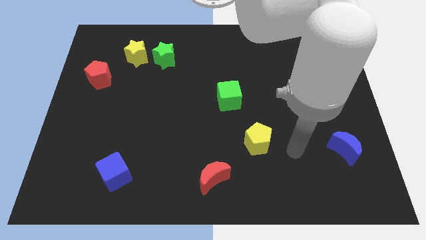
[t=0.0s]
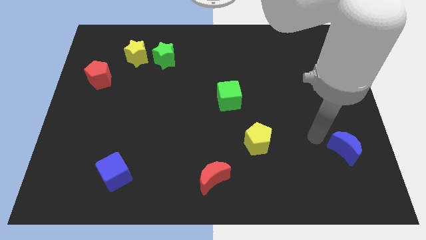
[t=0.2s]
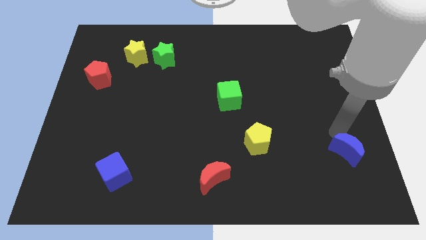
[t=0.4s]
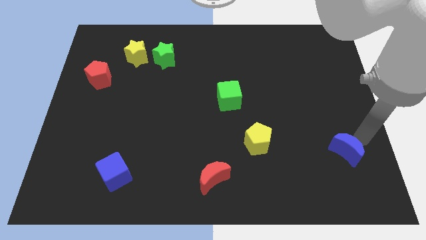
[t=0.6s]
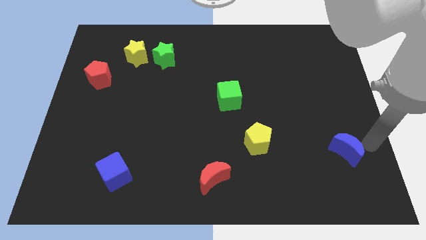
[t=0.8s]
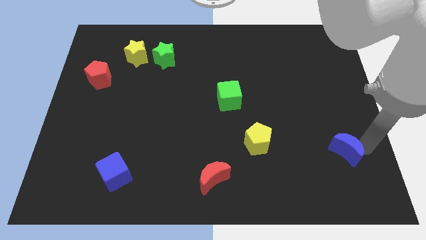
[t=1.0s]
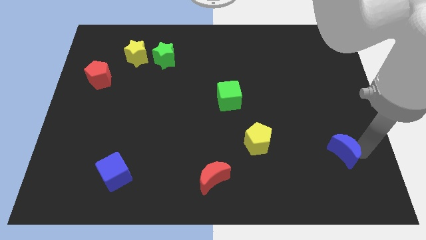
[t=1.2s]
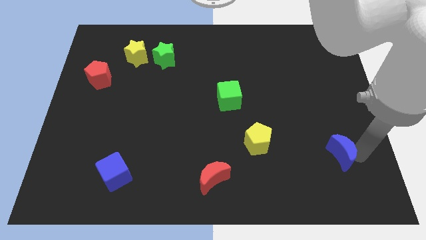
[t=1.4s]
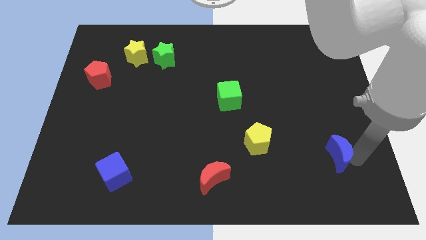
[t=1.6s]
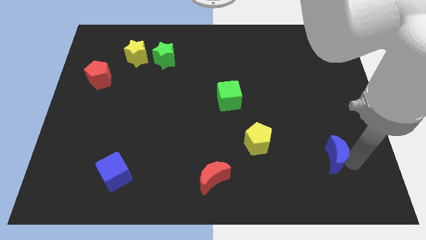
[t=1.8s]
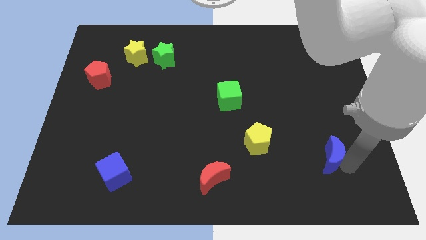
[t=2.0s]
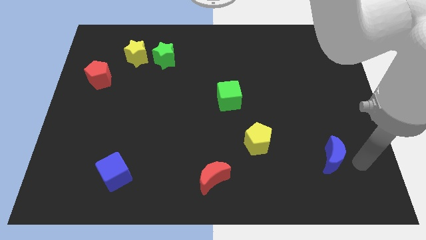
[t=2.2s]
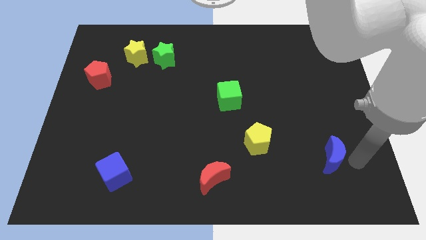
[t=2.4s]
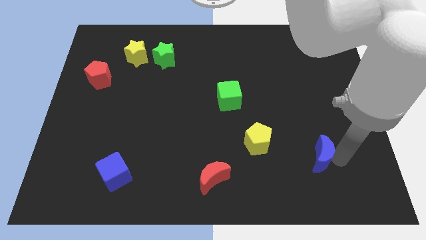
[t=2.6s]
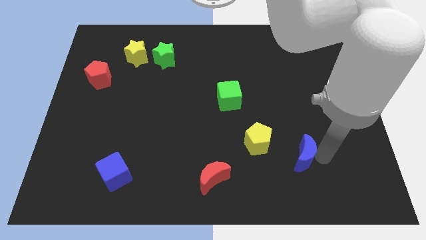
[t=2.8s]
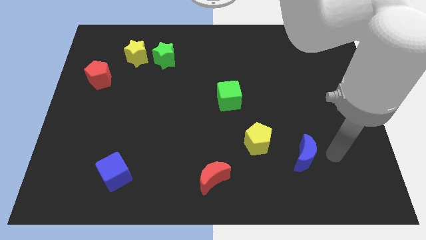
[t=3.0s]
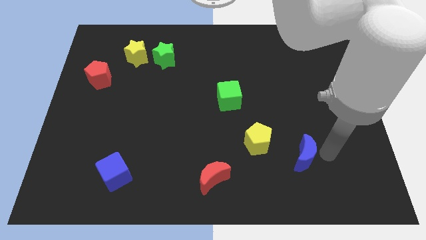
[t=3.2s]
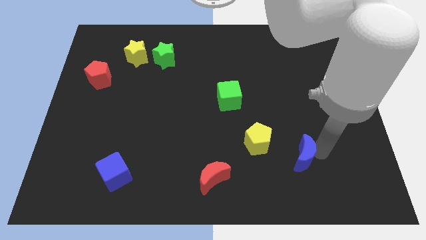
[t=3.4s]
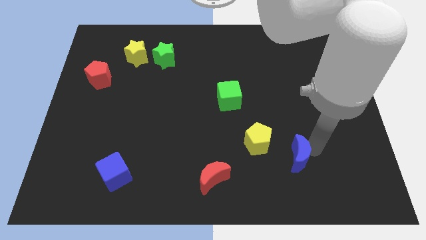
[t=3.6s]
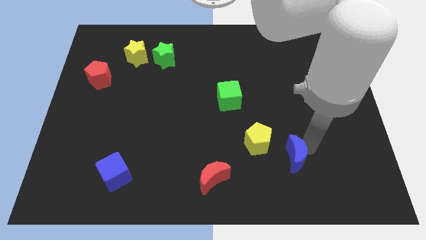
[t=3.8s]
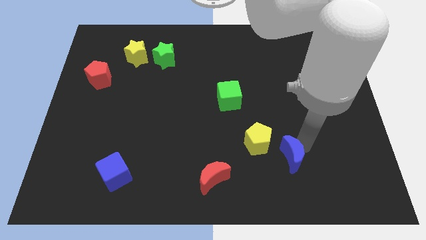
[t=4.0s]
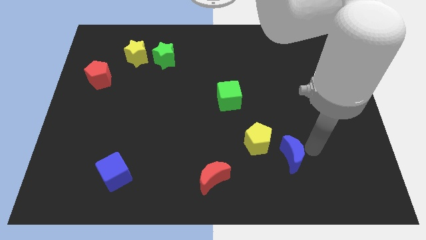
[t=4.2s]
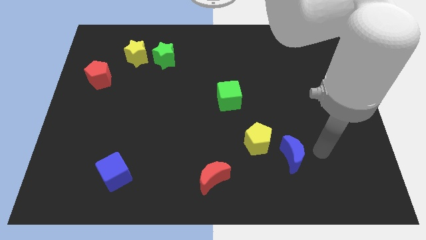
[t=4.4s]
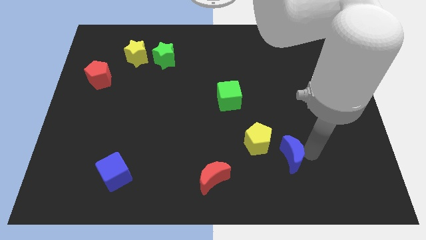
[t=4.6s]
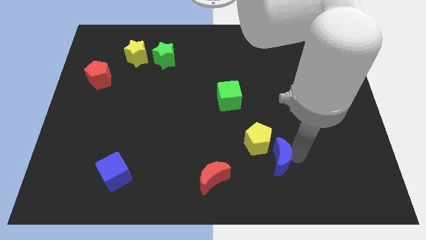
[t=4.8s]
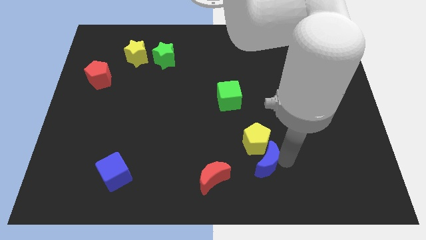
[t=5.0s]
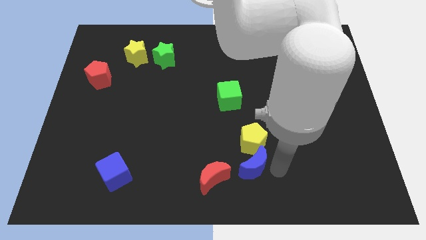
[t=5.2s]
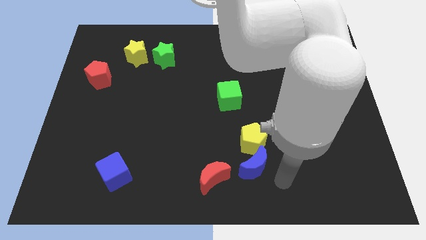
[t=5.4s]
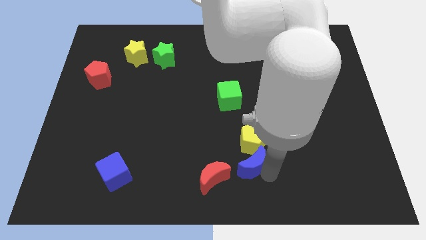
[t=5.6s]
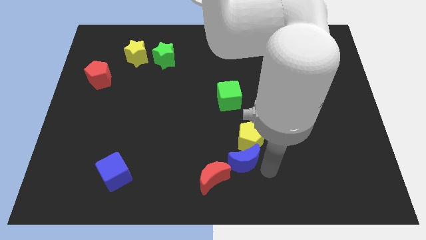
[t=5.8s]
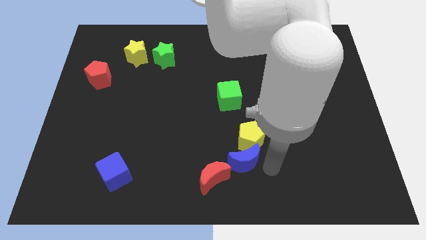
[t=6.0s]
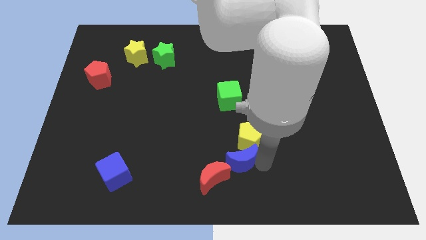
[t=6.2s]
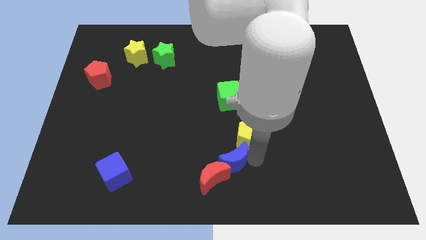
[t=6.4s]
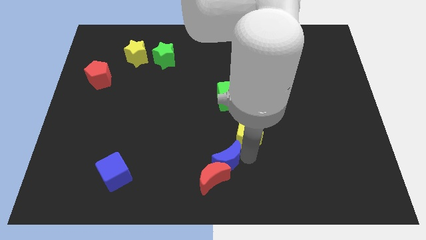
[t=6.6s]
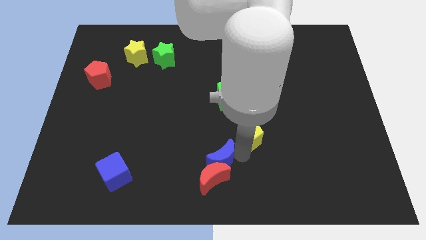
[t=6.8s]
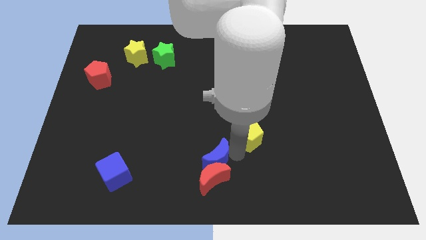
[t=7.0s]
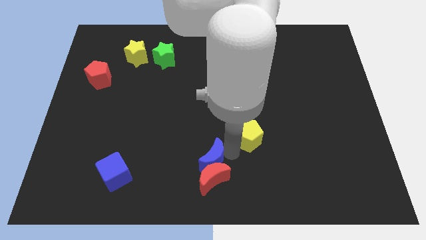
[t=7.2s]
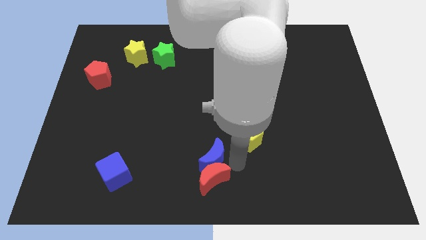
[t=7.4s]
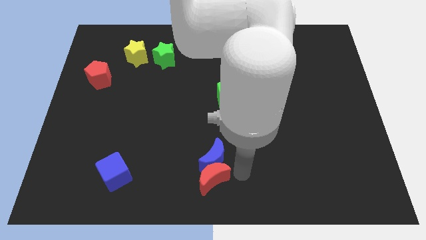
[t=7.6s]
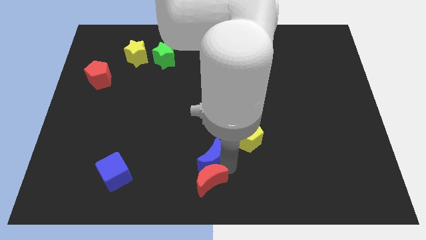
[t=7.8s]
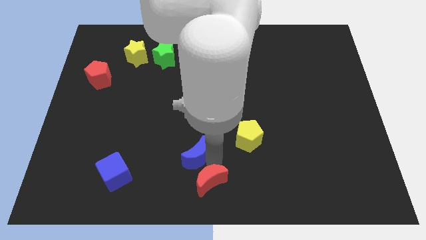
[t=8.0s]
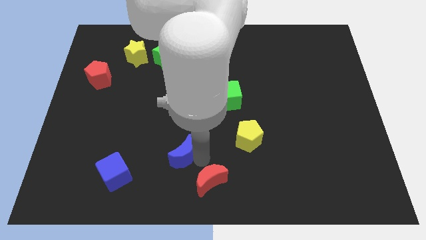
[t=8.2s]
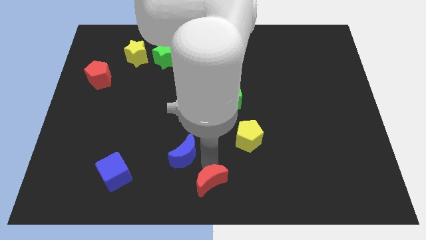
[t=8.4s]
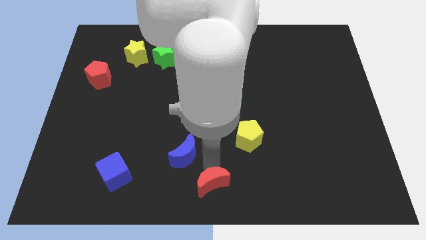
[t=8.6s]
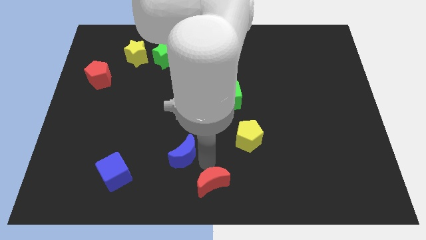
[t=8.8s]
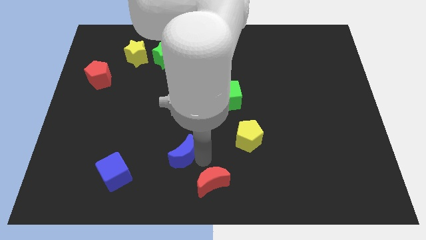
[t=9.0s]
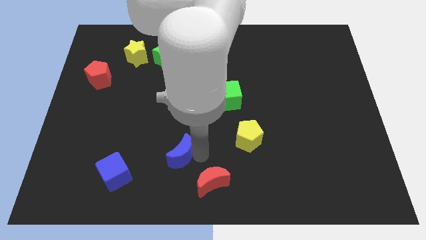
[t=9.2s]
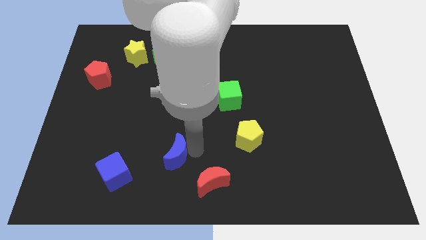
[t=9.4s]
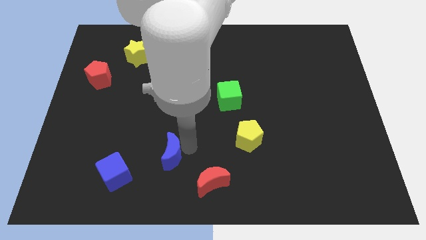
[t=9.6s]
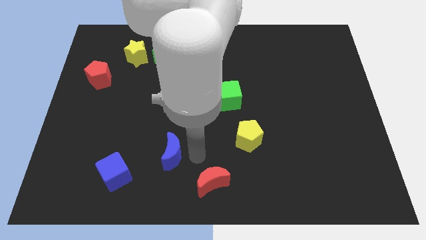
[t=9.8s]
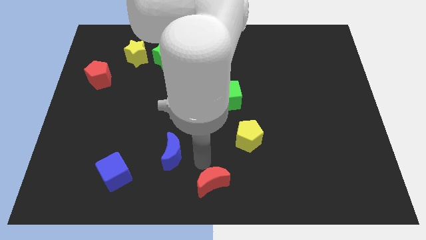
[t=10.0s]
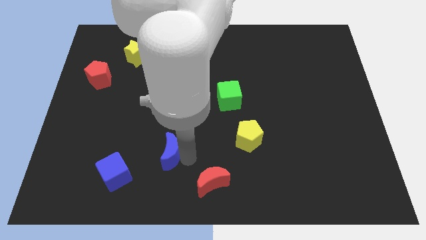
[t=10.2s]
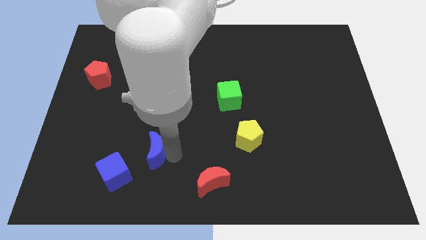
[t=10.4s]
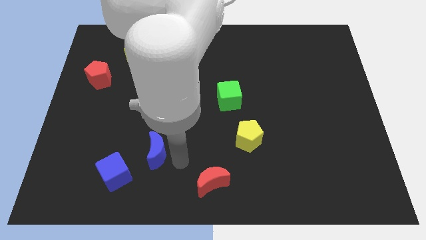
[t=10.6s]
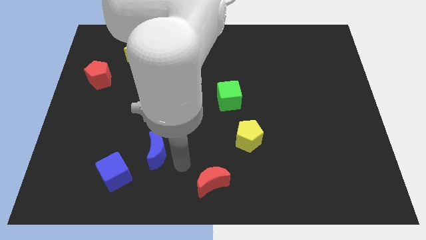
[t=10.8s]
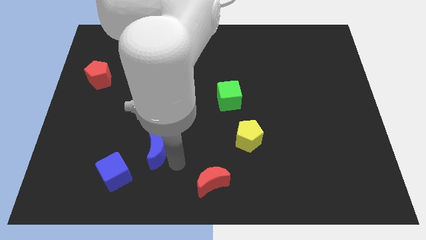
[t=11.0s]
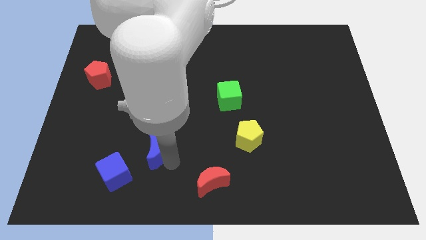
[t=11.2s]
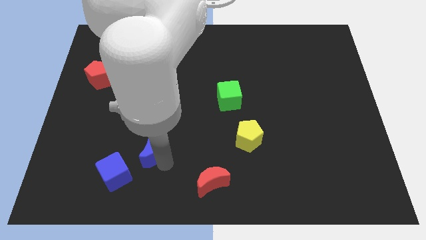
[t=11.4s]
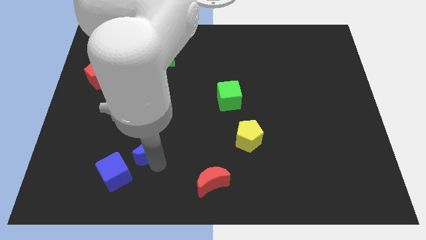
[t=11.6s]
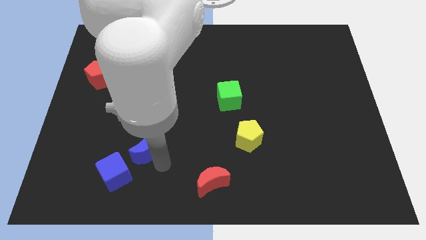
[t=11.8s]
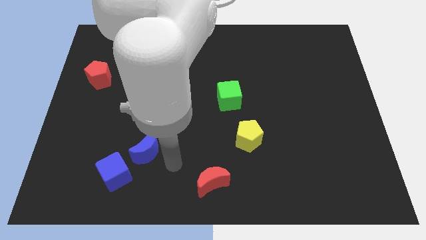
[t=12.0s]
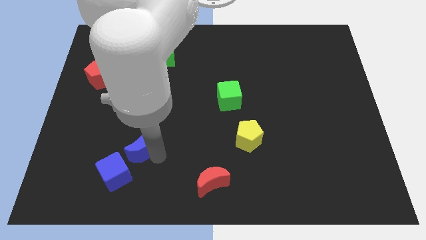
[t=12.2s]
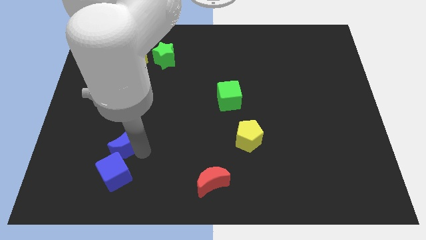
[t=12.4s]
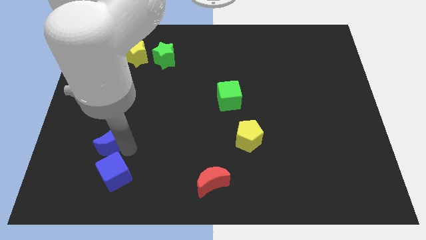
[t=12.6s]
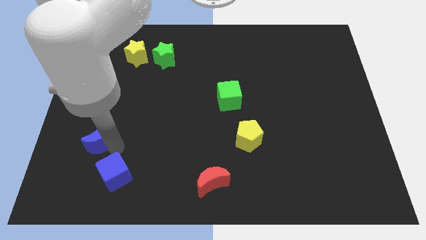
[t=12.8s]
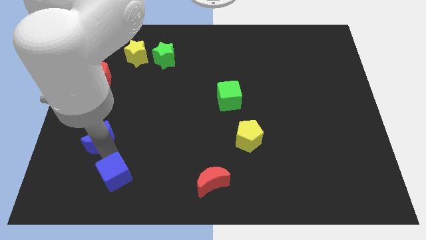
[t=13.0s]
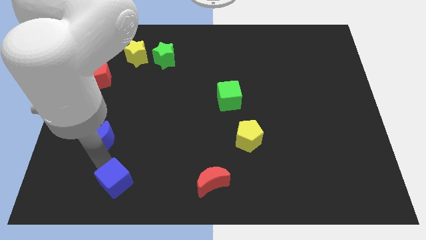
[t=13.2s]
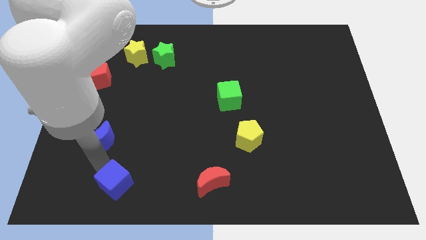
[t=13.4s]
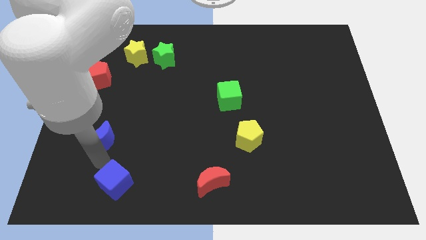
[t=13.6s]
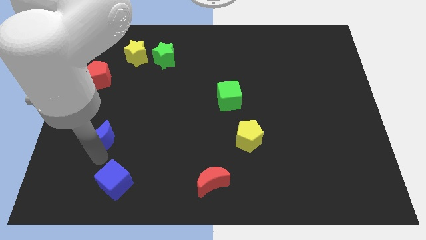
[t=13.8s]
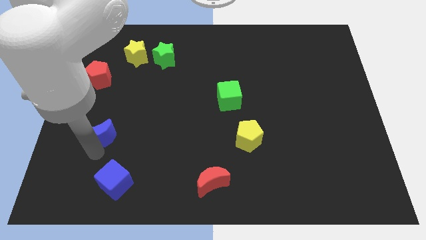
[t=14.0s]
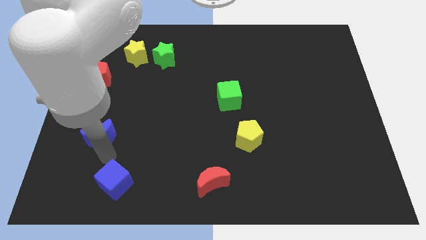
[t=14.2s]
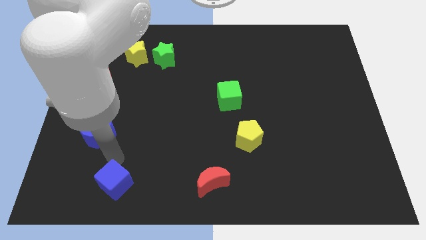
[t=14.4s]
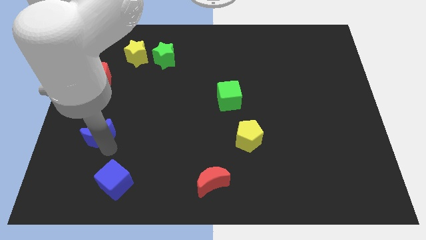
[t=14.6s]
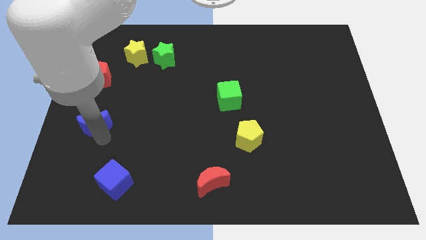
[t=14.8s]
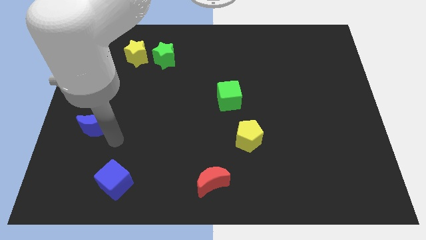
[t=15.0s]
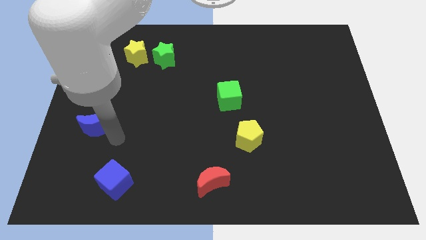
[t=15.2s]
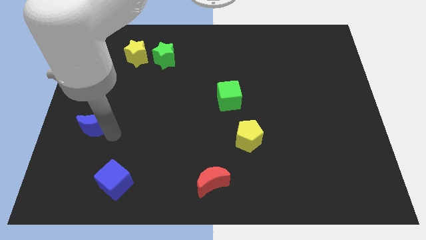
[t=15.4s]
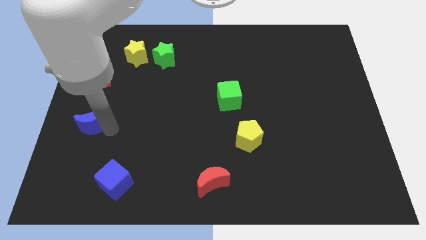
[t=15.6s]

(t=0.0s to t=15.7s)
push the blue moon to the center left
